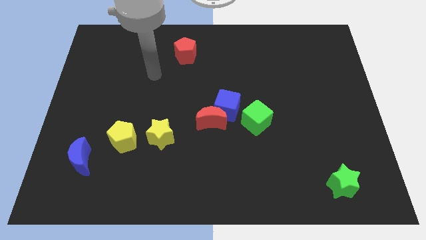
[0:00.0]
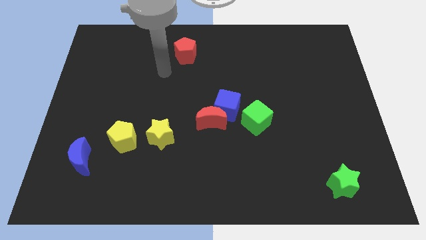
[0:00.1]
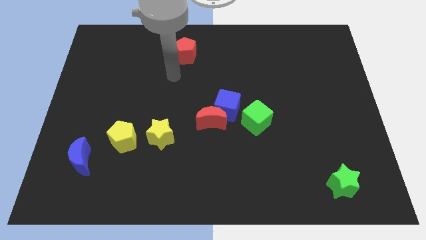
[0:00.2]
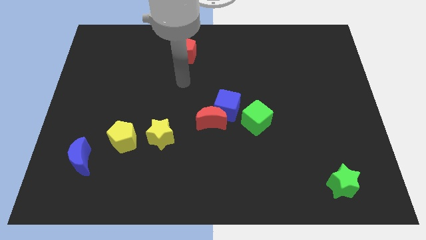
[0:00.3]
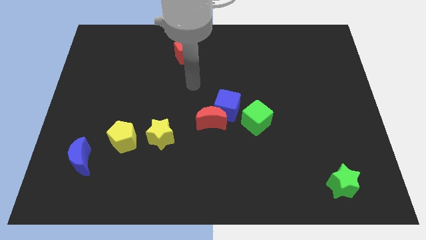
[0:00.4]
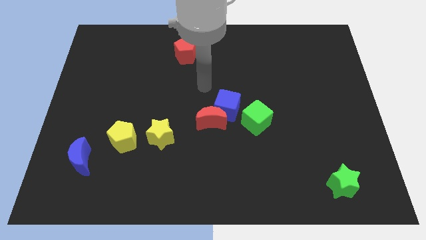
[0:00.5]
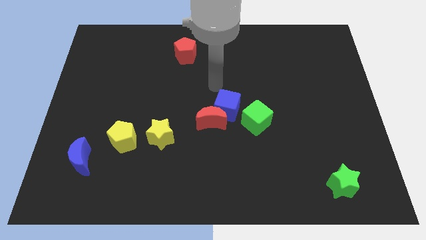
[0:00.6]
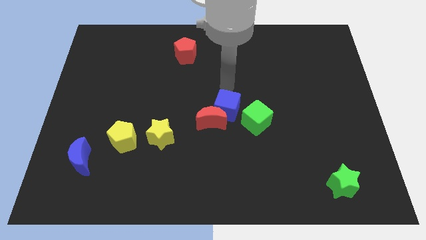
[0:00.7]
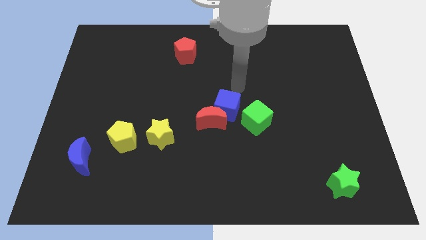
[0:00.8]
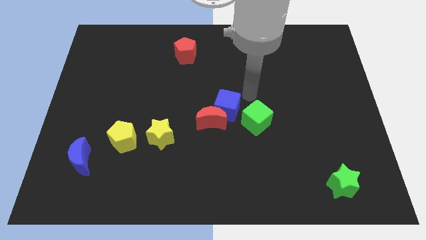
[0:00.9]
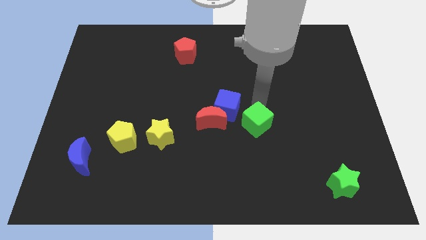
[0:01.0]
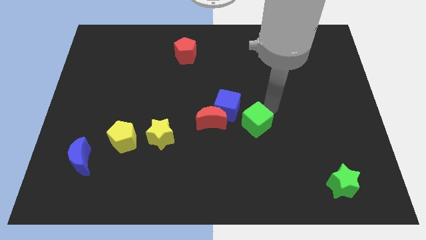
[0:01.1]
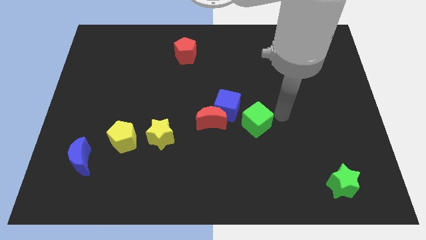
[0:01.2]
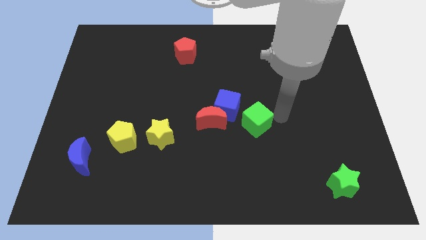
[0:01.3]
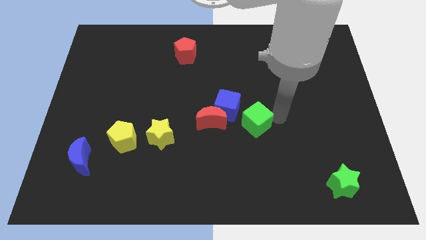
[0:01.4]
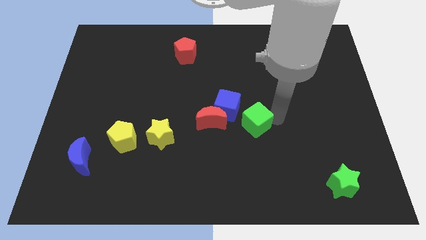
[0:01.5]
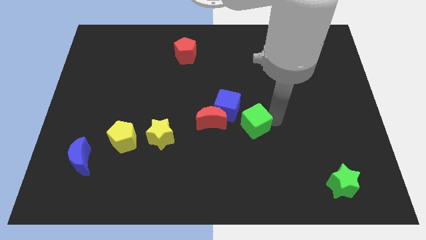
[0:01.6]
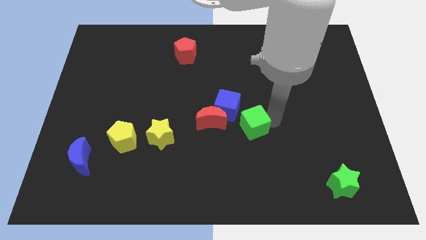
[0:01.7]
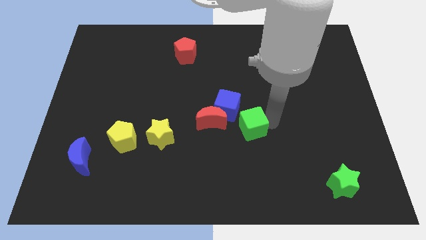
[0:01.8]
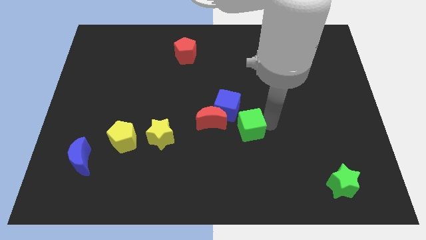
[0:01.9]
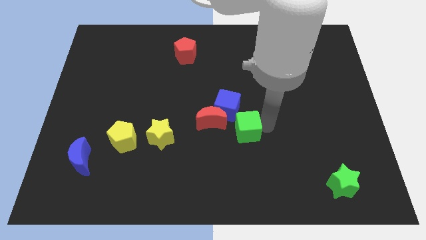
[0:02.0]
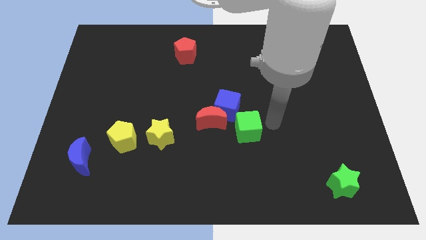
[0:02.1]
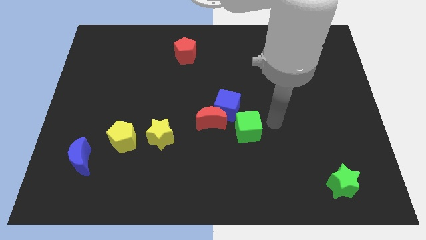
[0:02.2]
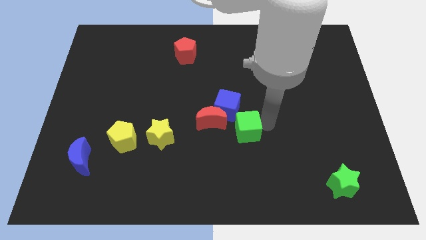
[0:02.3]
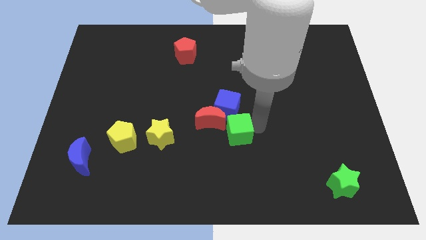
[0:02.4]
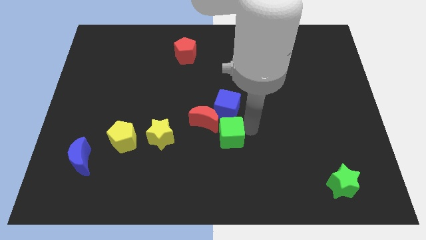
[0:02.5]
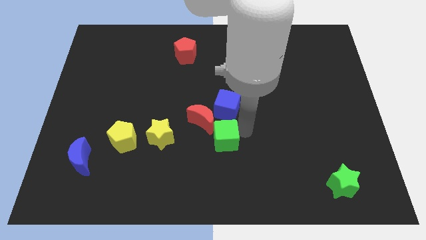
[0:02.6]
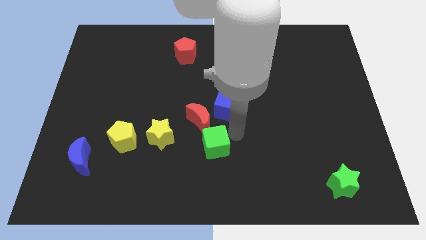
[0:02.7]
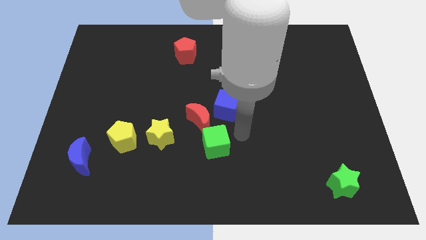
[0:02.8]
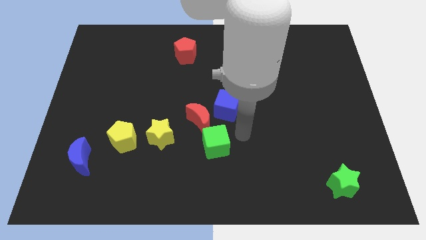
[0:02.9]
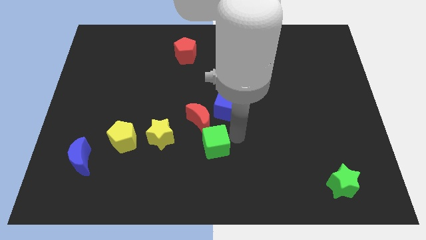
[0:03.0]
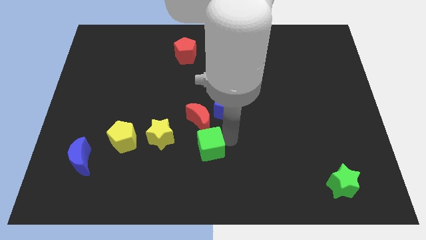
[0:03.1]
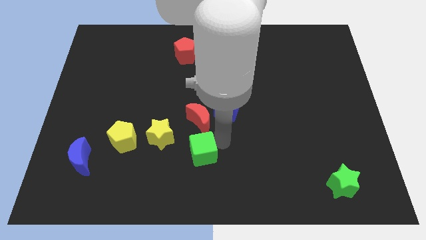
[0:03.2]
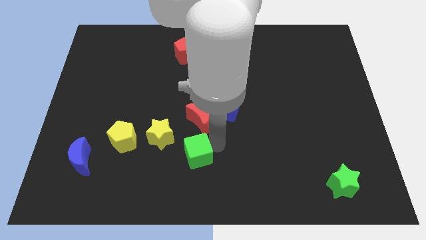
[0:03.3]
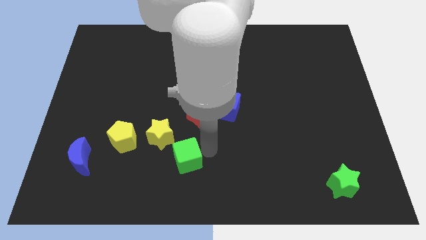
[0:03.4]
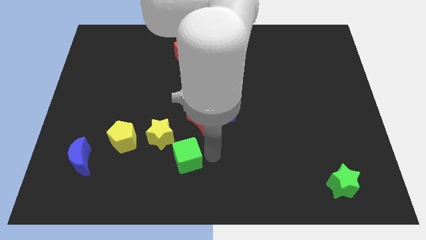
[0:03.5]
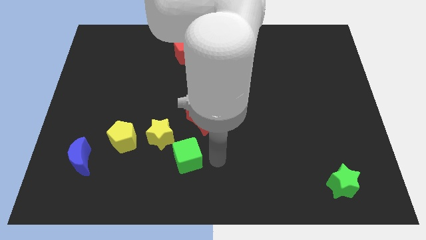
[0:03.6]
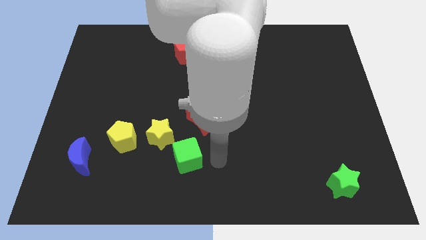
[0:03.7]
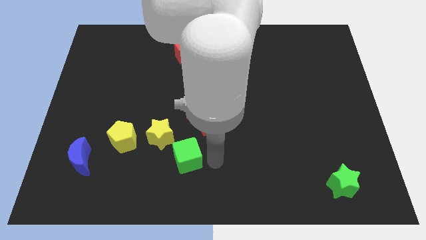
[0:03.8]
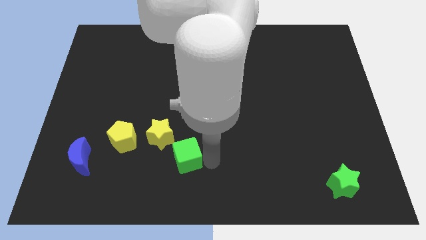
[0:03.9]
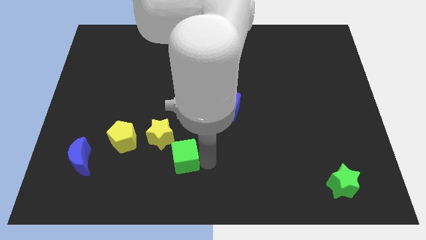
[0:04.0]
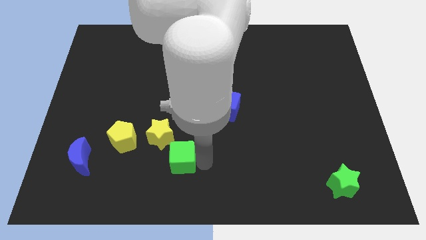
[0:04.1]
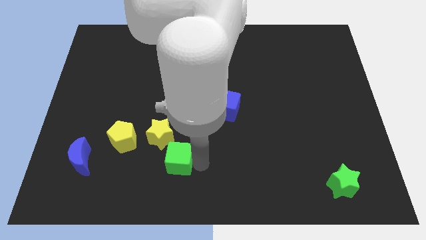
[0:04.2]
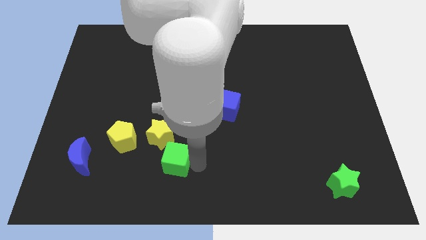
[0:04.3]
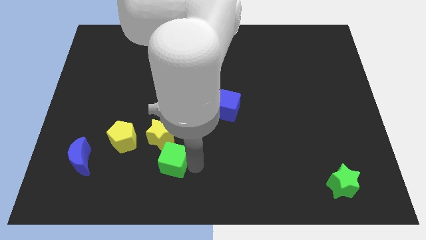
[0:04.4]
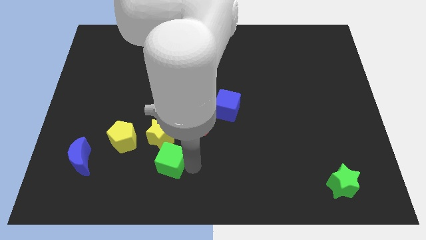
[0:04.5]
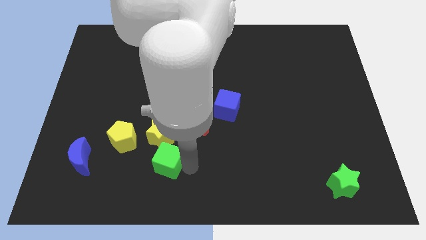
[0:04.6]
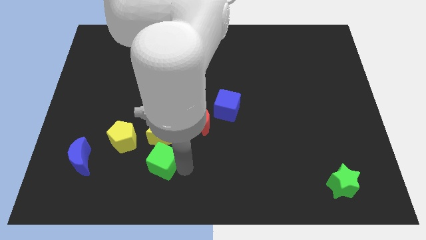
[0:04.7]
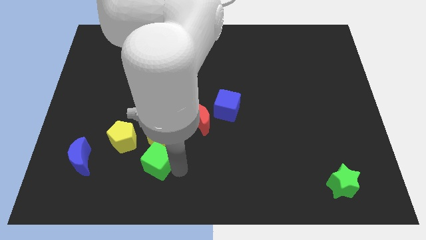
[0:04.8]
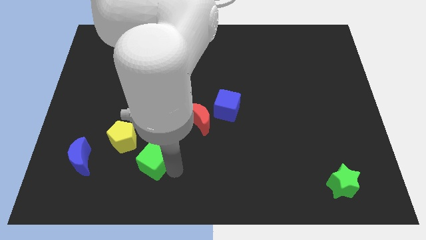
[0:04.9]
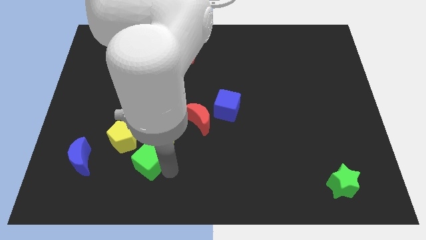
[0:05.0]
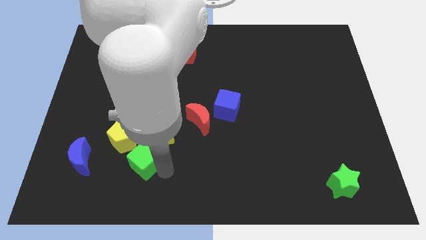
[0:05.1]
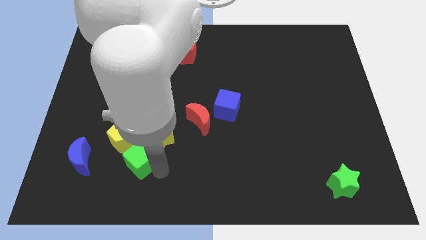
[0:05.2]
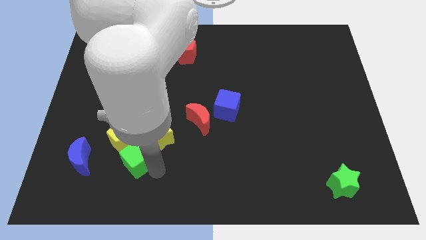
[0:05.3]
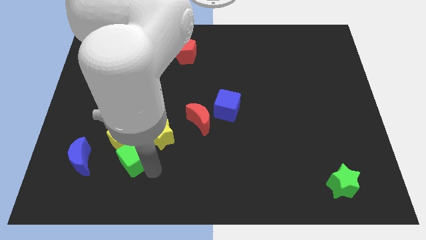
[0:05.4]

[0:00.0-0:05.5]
slide the green cube towards the yellow pentagon
